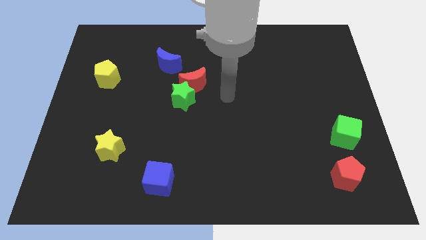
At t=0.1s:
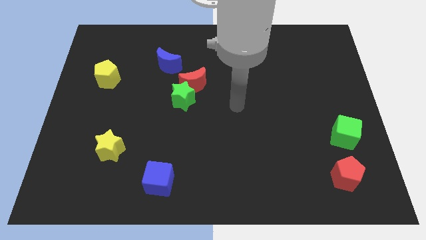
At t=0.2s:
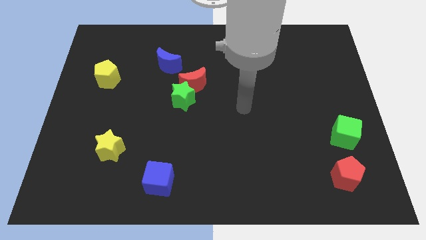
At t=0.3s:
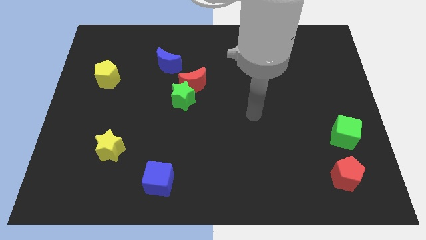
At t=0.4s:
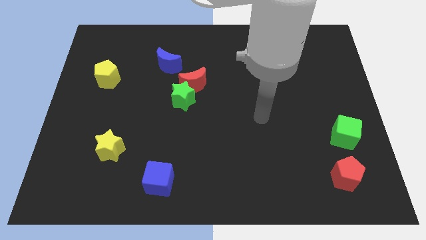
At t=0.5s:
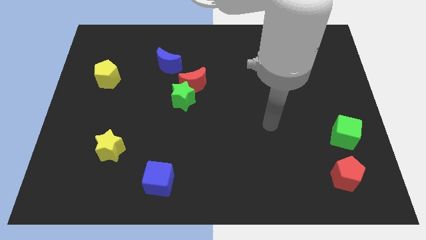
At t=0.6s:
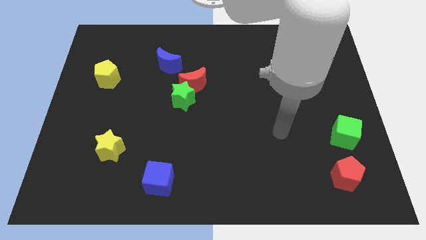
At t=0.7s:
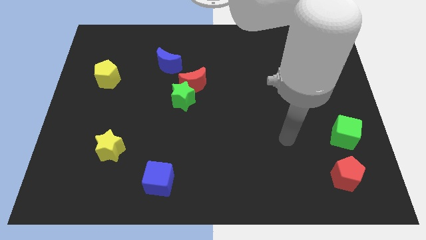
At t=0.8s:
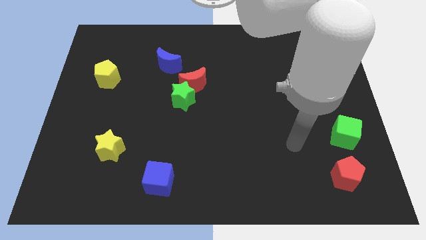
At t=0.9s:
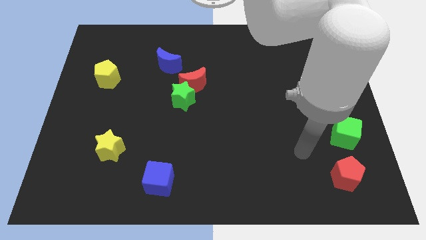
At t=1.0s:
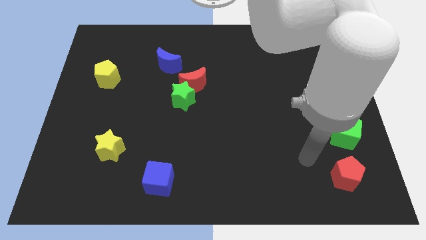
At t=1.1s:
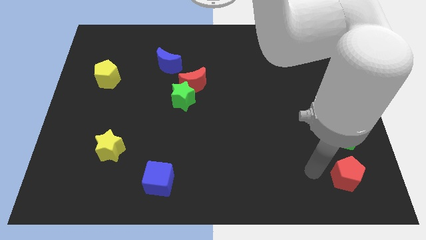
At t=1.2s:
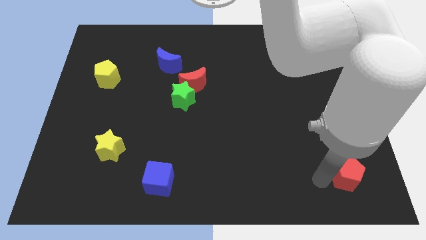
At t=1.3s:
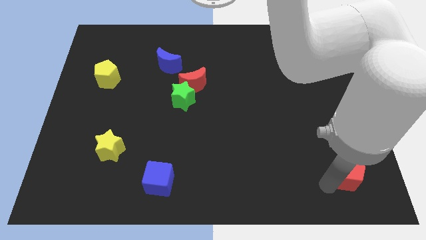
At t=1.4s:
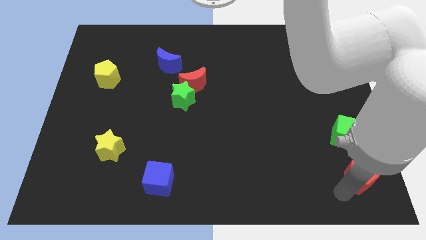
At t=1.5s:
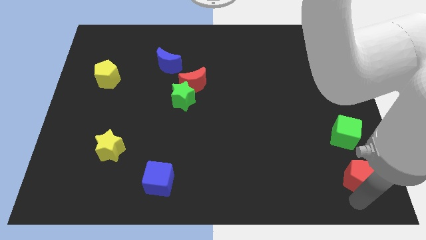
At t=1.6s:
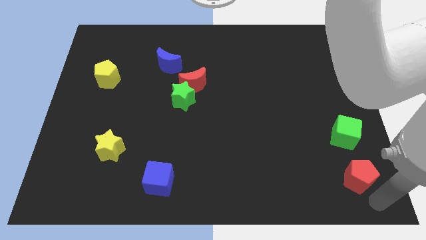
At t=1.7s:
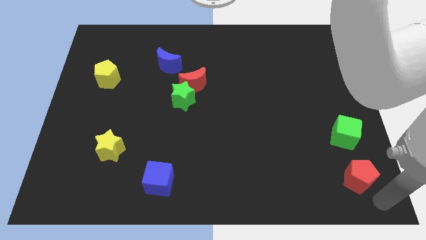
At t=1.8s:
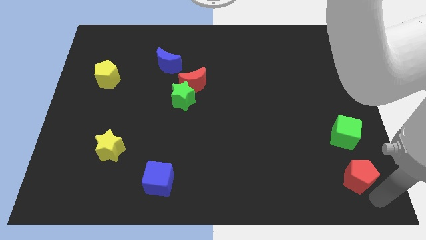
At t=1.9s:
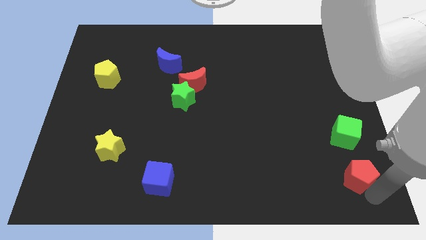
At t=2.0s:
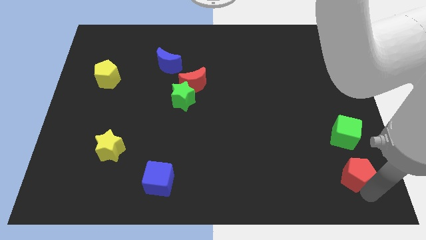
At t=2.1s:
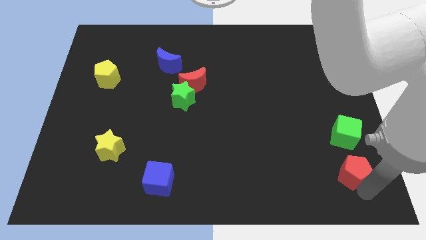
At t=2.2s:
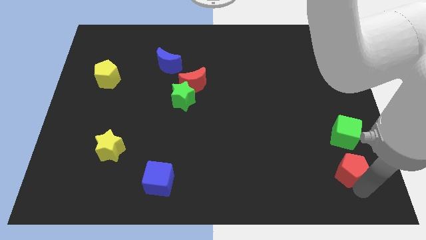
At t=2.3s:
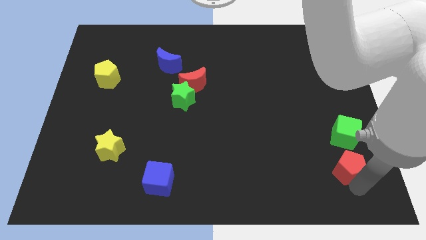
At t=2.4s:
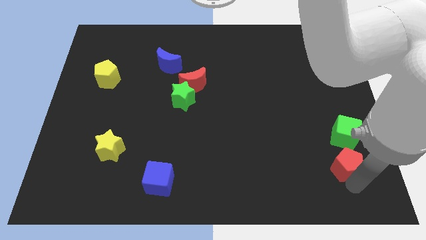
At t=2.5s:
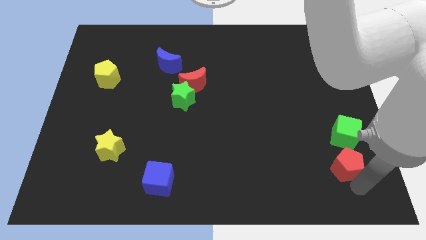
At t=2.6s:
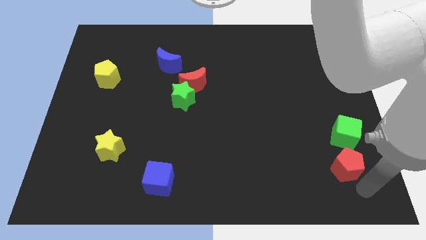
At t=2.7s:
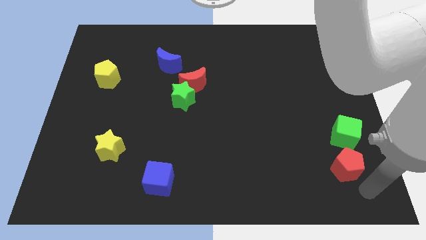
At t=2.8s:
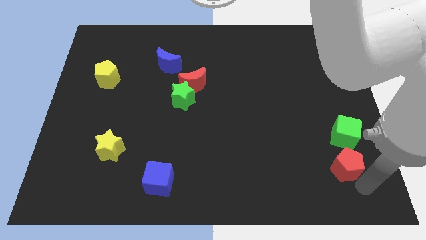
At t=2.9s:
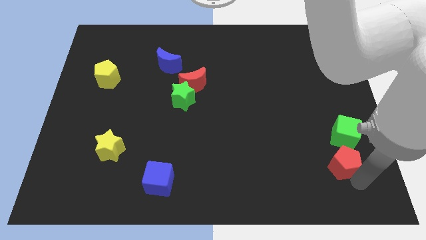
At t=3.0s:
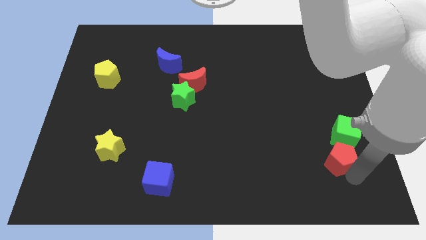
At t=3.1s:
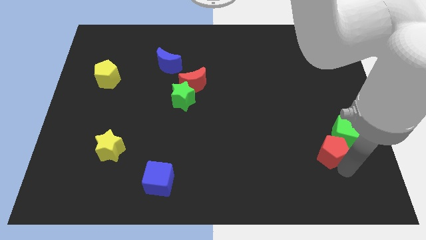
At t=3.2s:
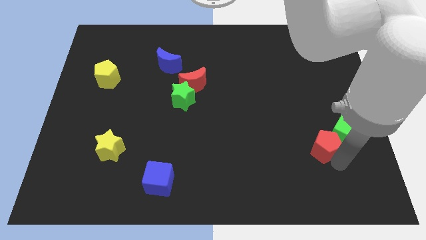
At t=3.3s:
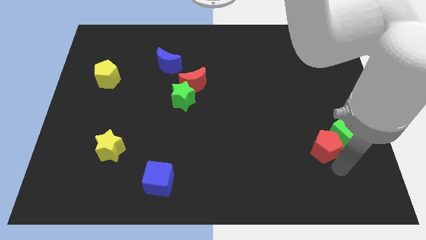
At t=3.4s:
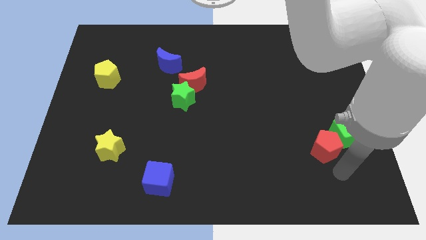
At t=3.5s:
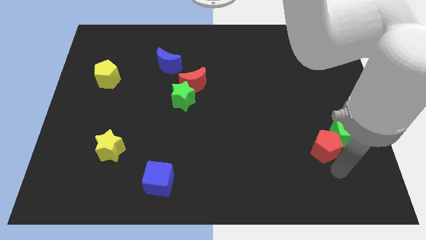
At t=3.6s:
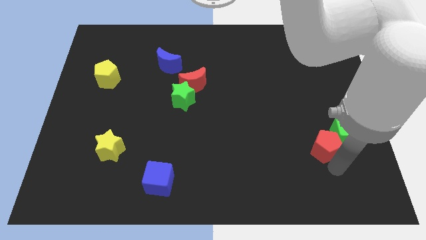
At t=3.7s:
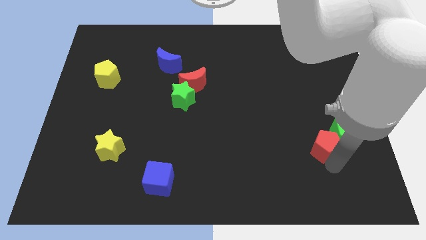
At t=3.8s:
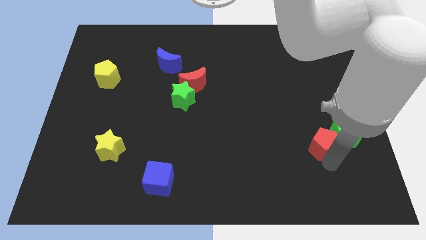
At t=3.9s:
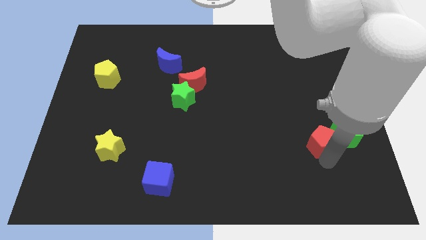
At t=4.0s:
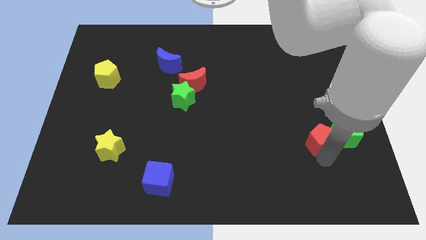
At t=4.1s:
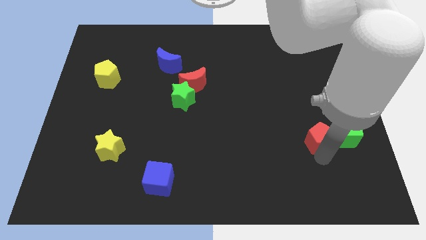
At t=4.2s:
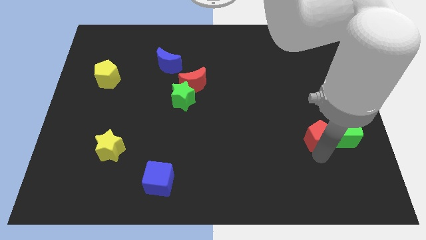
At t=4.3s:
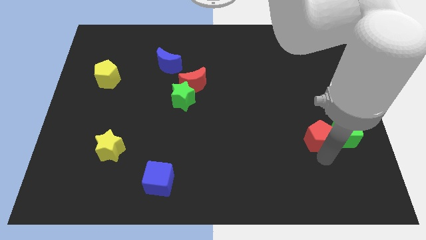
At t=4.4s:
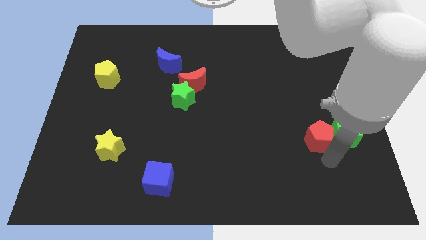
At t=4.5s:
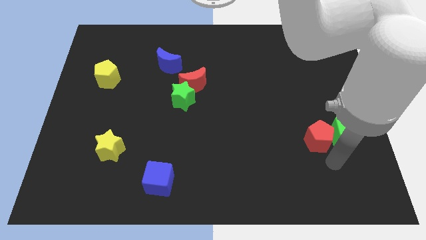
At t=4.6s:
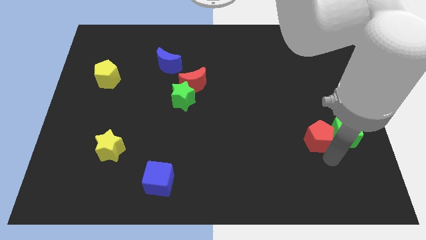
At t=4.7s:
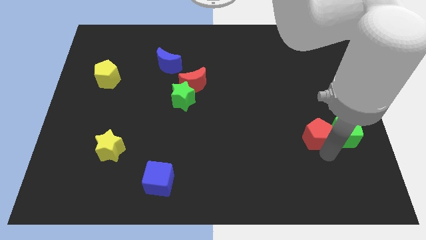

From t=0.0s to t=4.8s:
put the red pentagon to the top left side of the green cube

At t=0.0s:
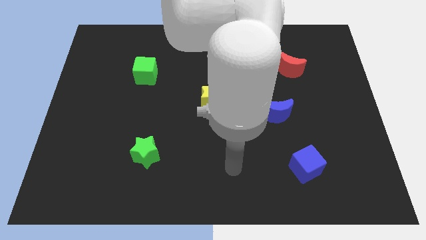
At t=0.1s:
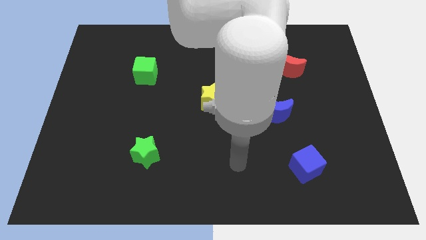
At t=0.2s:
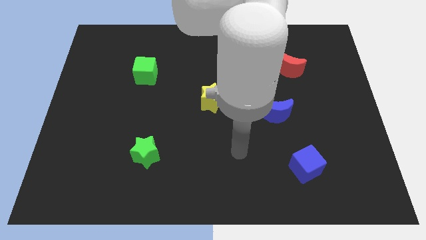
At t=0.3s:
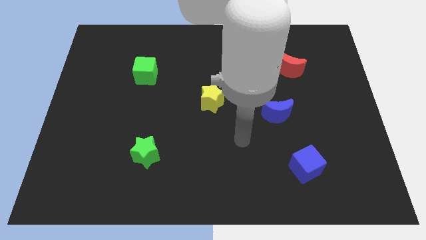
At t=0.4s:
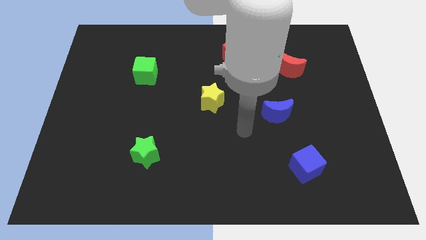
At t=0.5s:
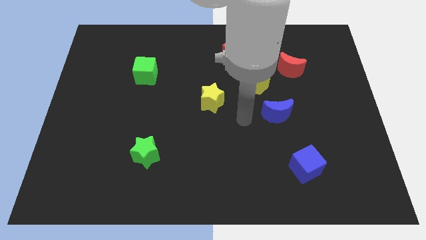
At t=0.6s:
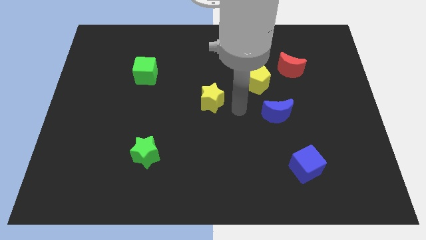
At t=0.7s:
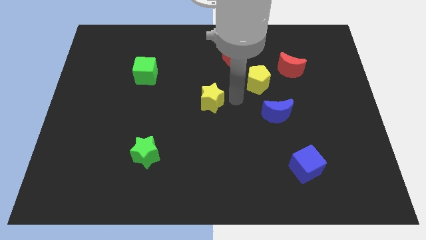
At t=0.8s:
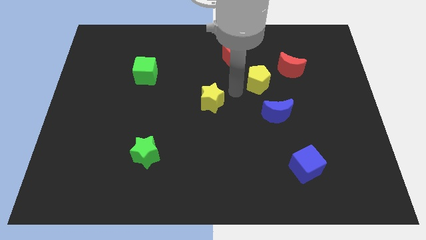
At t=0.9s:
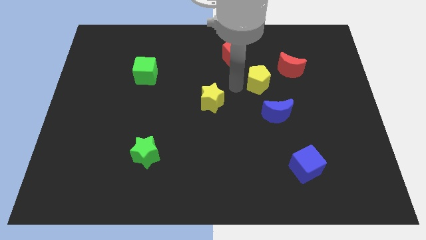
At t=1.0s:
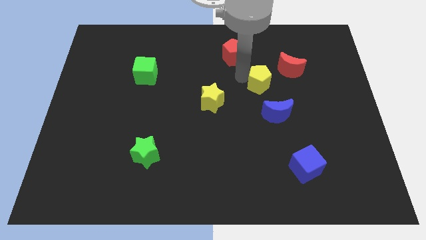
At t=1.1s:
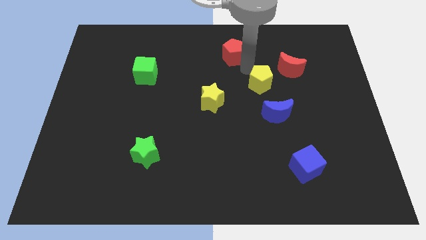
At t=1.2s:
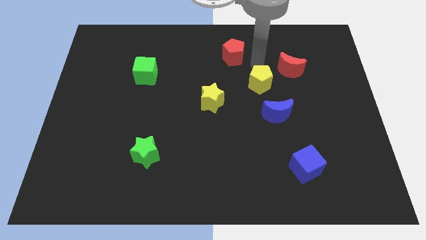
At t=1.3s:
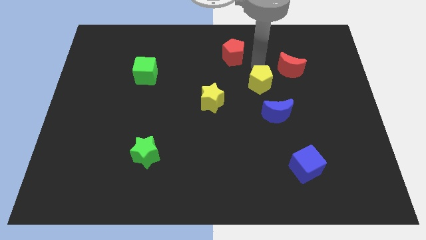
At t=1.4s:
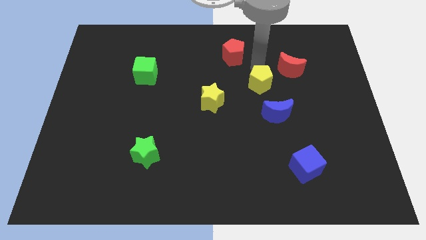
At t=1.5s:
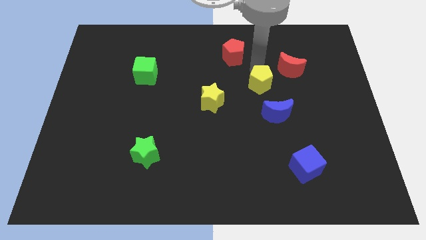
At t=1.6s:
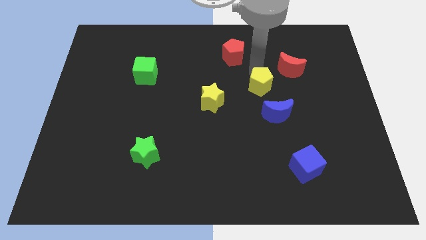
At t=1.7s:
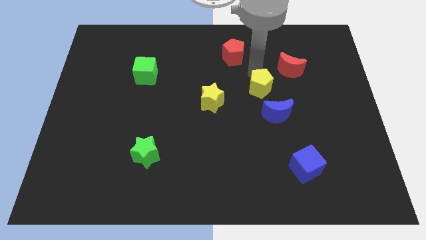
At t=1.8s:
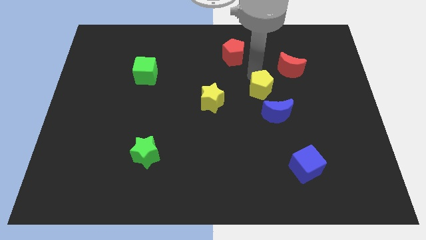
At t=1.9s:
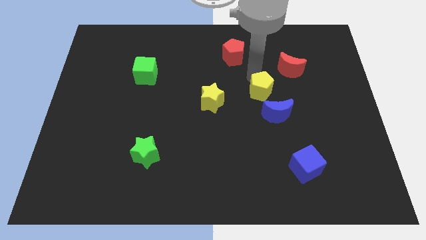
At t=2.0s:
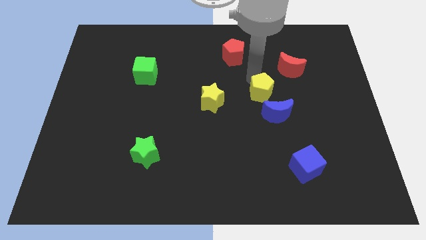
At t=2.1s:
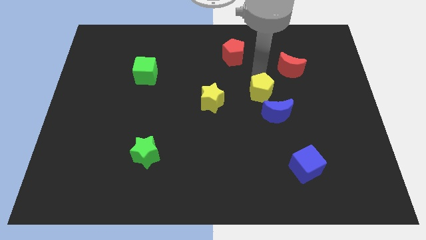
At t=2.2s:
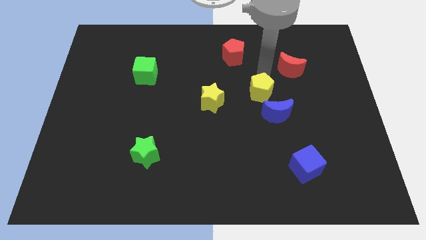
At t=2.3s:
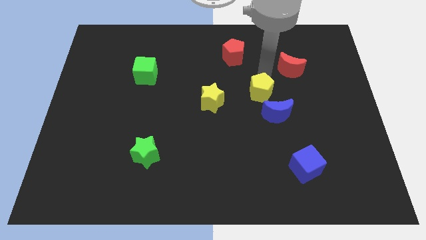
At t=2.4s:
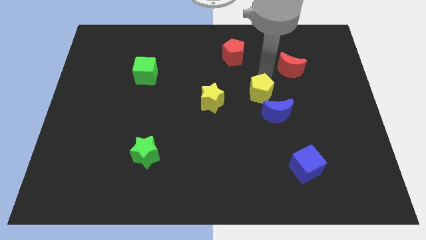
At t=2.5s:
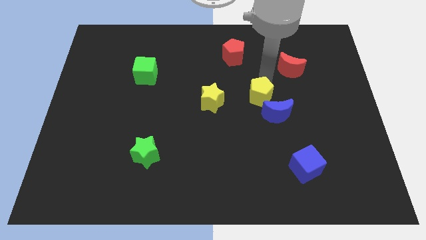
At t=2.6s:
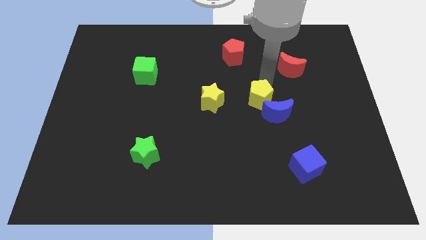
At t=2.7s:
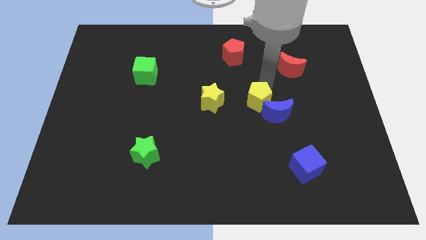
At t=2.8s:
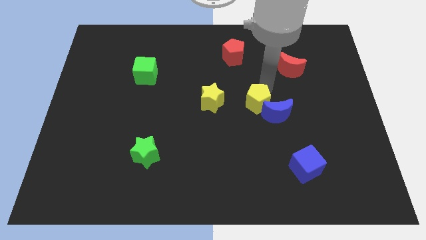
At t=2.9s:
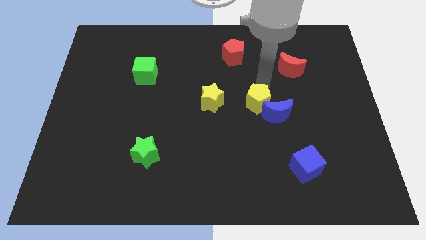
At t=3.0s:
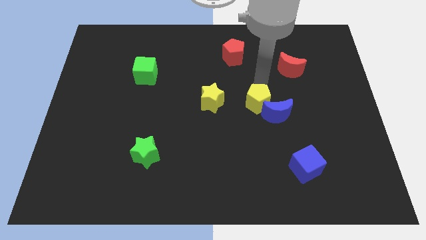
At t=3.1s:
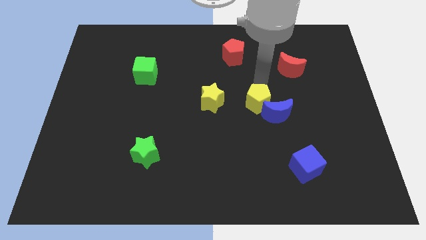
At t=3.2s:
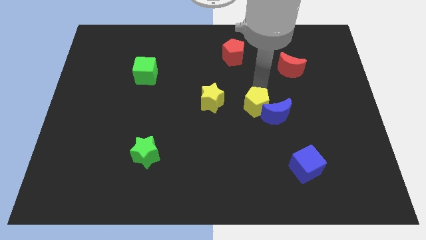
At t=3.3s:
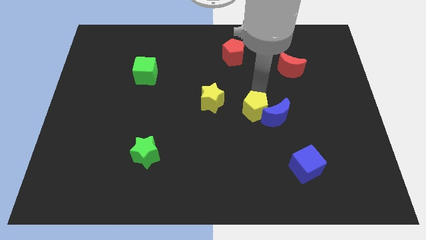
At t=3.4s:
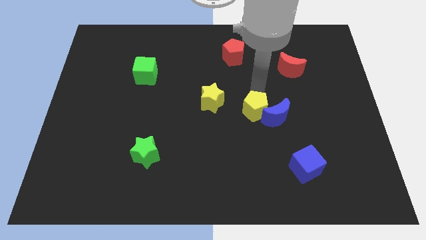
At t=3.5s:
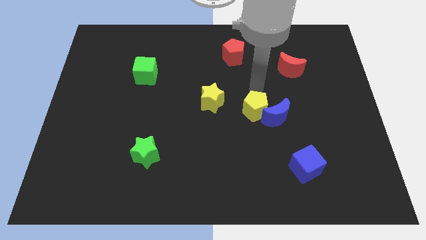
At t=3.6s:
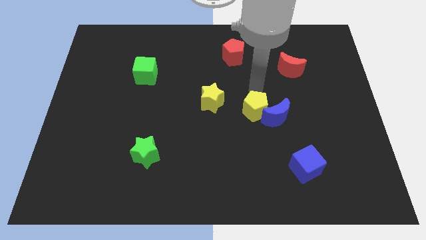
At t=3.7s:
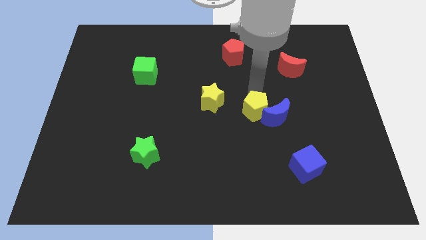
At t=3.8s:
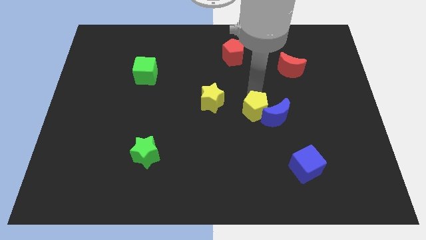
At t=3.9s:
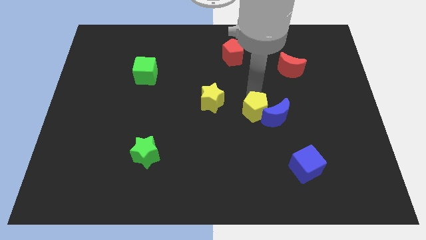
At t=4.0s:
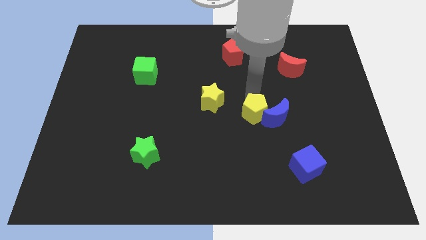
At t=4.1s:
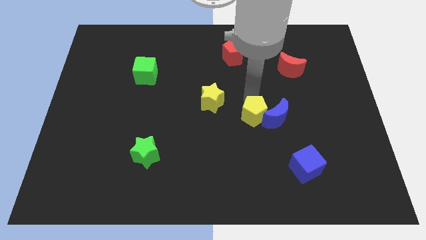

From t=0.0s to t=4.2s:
slide the yellow pentagon diagonally down and to the left of the blue moon
